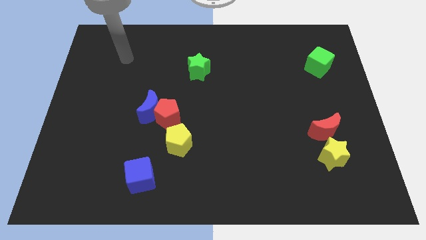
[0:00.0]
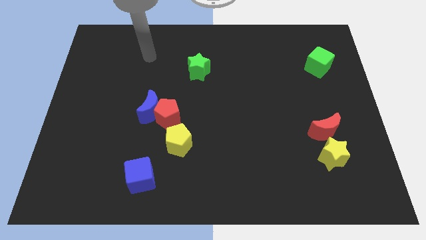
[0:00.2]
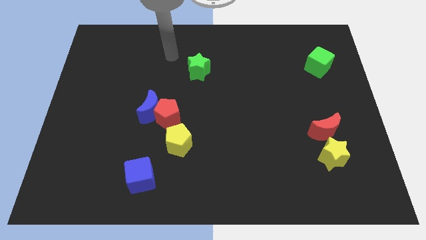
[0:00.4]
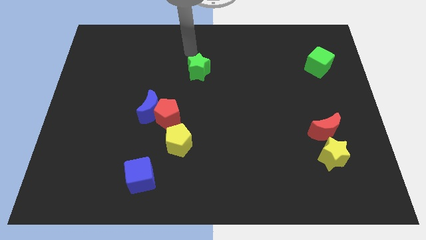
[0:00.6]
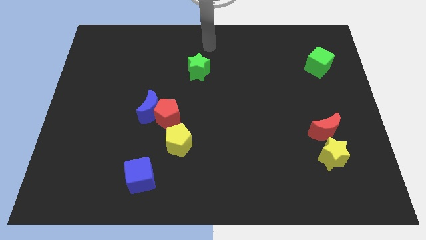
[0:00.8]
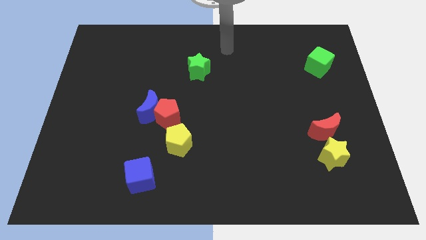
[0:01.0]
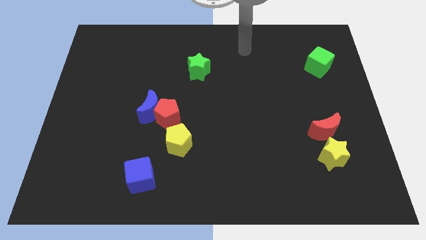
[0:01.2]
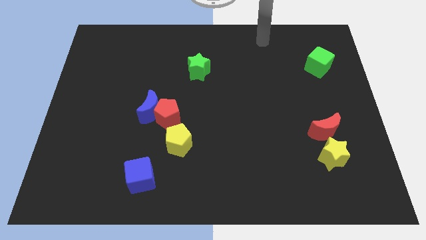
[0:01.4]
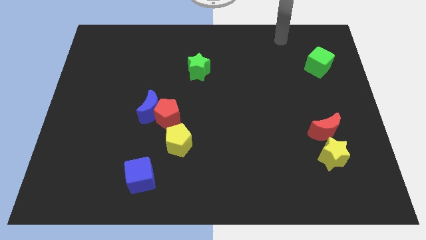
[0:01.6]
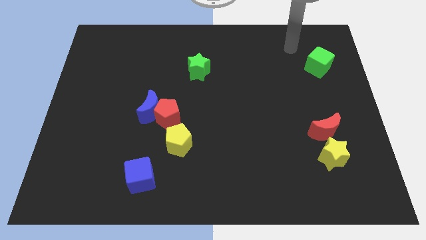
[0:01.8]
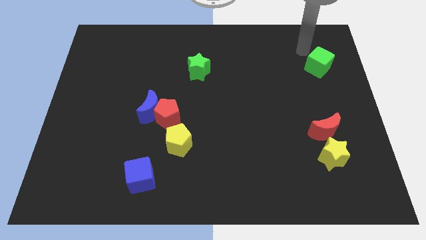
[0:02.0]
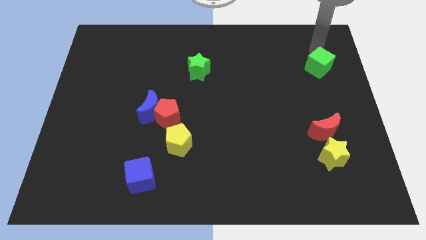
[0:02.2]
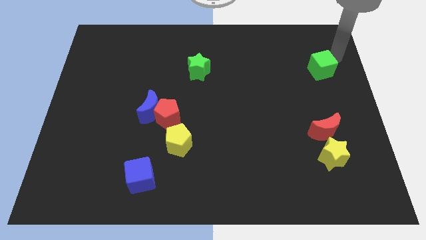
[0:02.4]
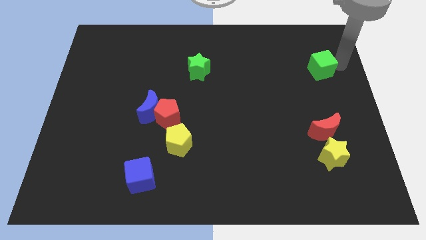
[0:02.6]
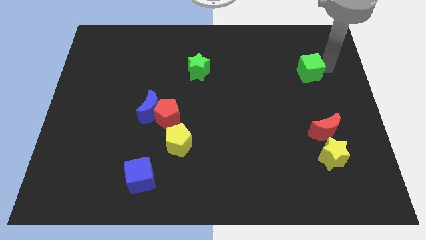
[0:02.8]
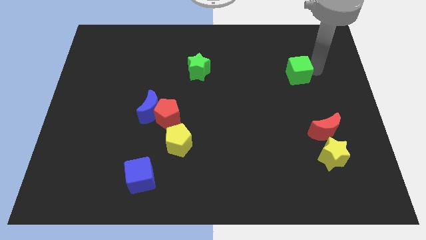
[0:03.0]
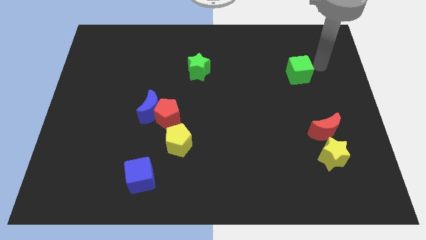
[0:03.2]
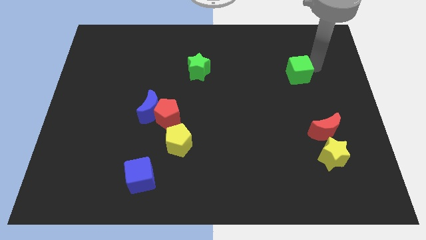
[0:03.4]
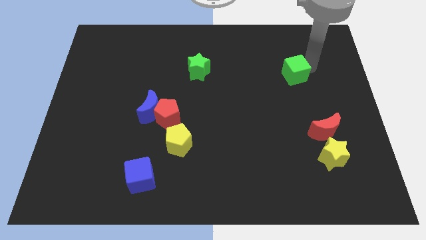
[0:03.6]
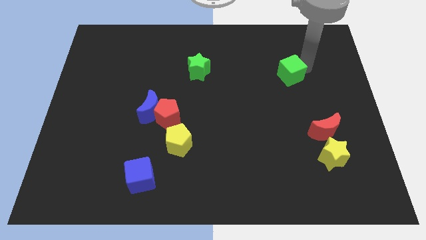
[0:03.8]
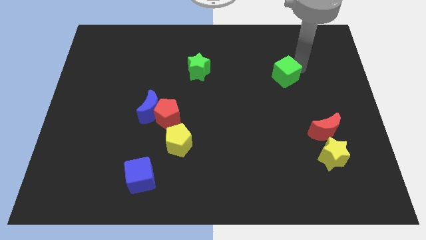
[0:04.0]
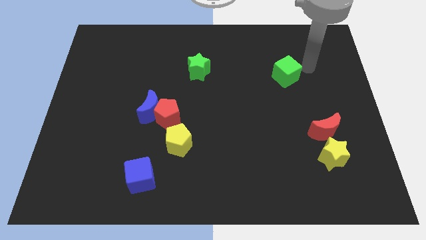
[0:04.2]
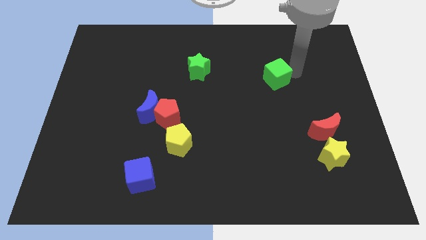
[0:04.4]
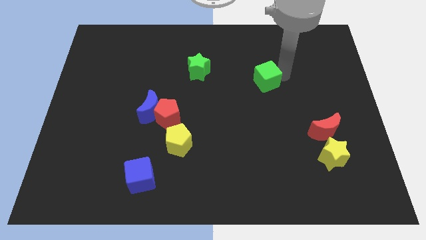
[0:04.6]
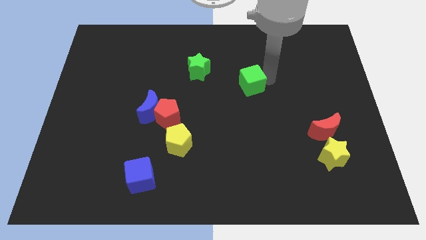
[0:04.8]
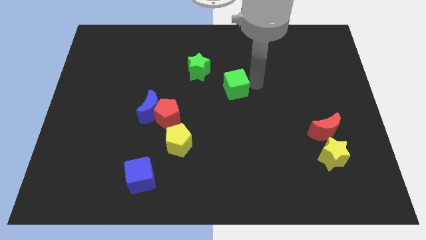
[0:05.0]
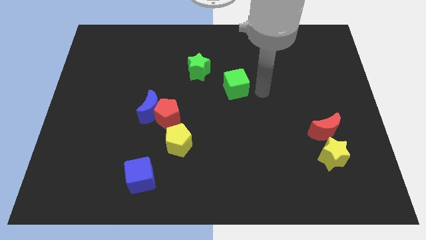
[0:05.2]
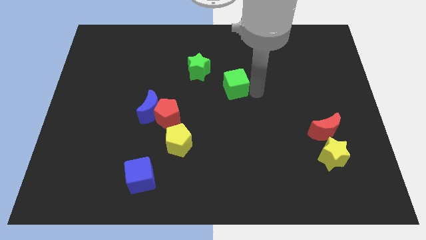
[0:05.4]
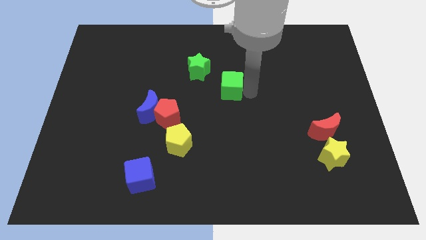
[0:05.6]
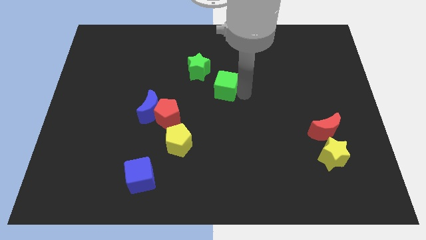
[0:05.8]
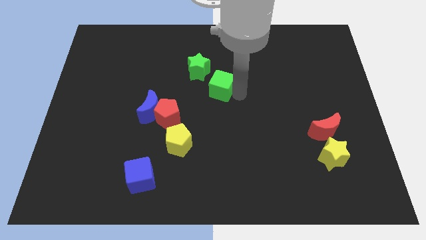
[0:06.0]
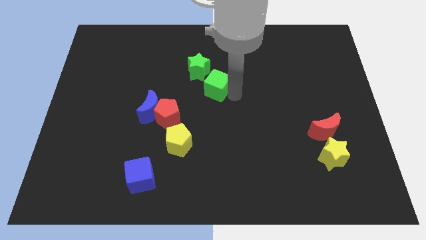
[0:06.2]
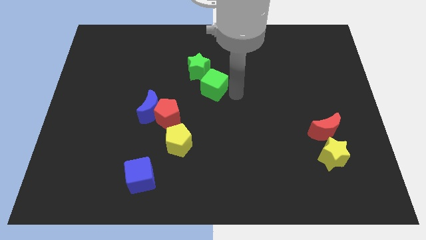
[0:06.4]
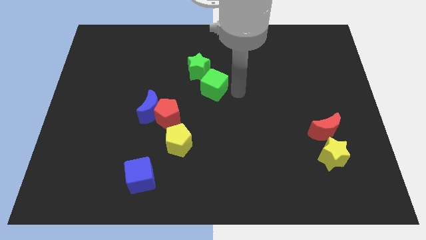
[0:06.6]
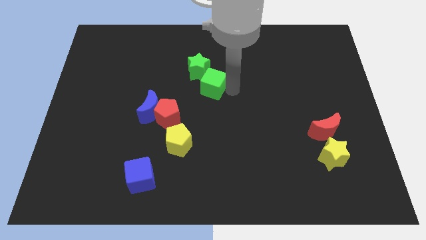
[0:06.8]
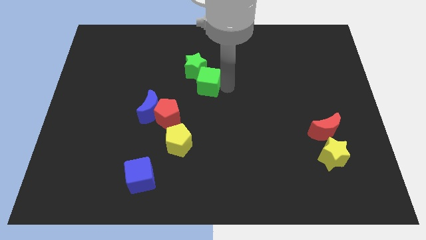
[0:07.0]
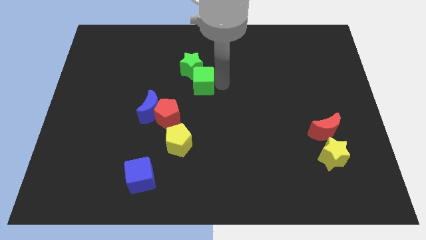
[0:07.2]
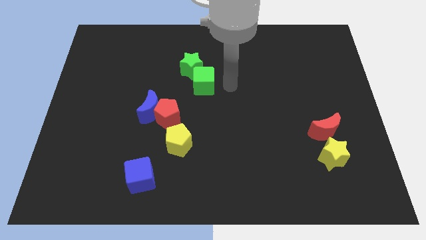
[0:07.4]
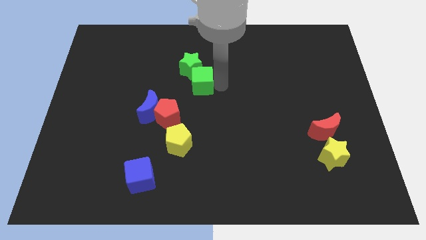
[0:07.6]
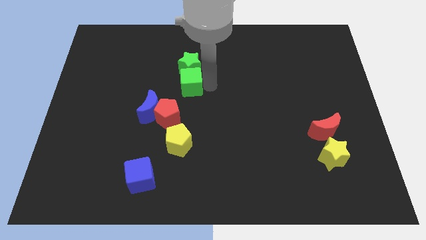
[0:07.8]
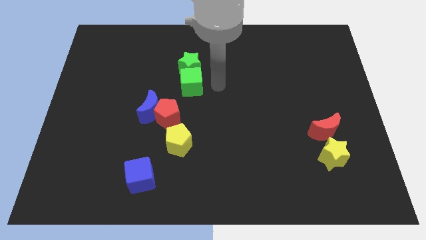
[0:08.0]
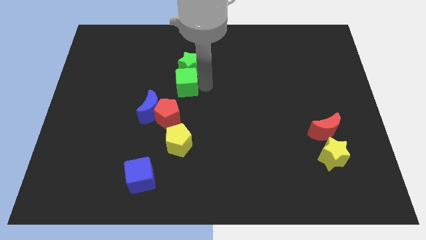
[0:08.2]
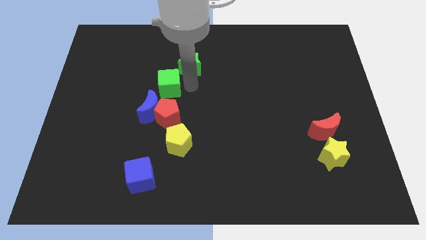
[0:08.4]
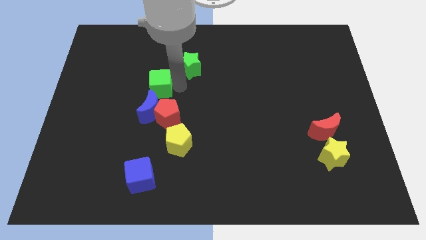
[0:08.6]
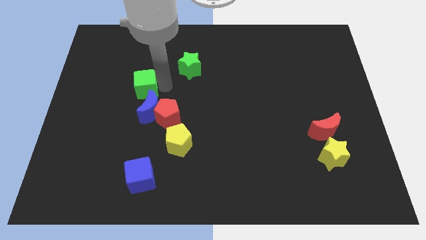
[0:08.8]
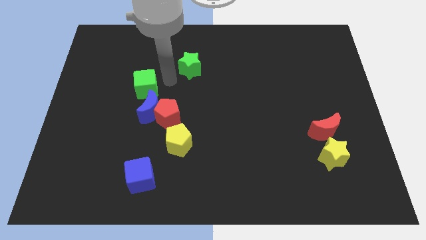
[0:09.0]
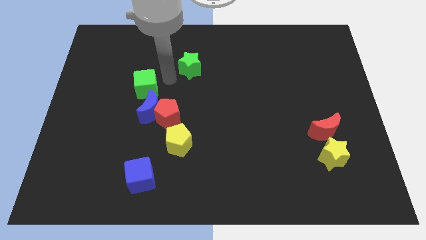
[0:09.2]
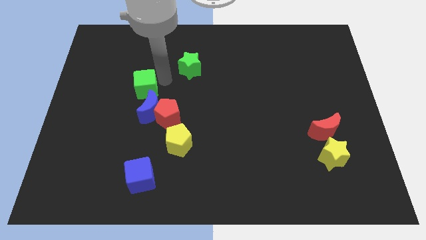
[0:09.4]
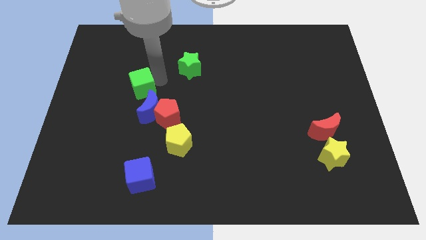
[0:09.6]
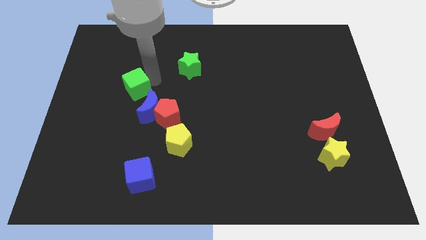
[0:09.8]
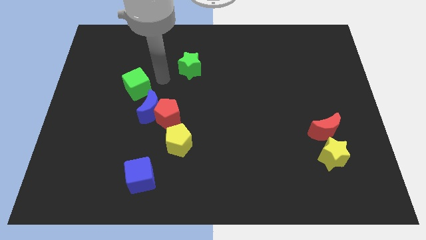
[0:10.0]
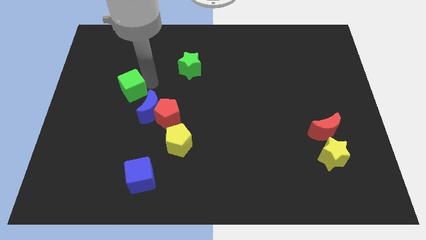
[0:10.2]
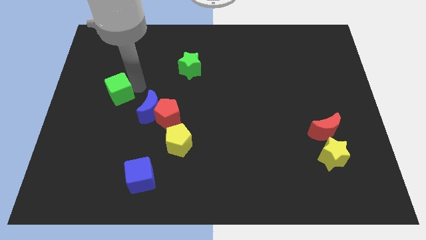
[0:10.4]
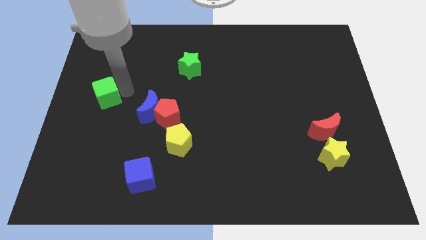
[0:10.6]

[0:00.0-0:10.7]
move the green cube to the left side

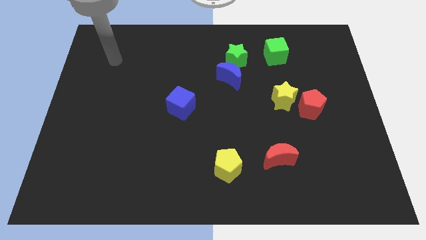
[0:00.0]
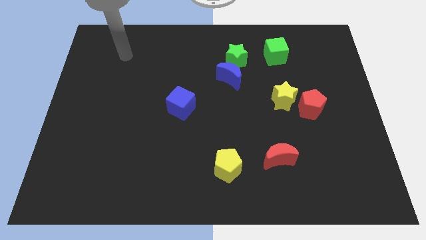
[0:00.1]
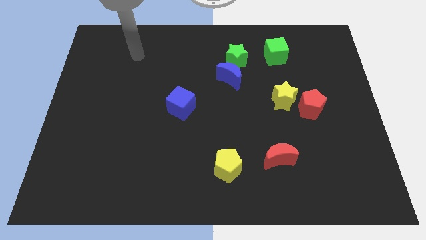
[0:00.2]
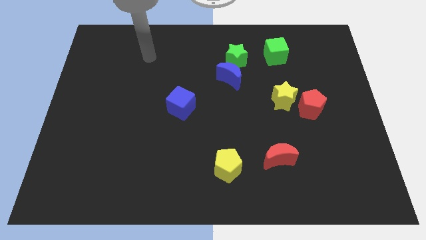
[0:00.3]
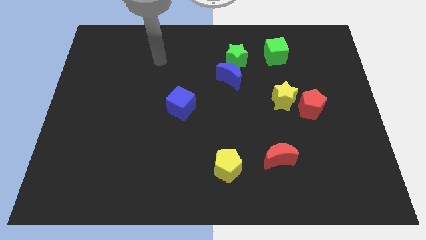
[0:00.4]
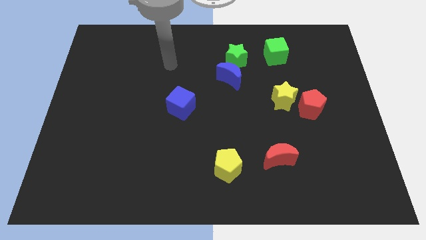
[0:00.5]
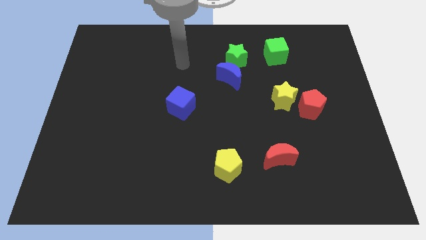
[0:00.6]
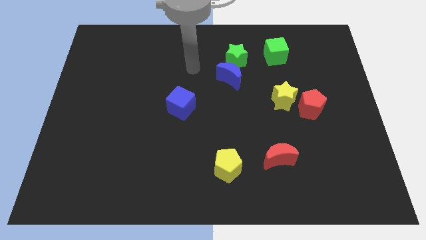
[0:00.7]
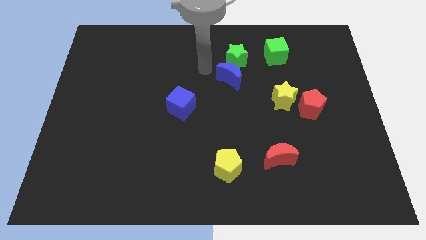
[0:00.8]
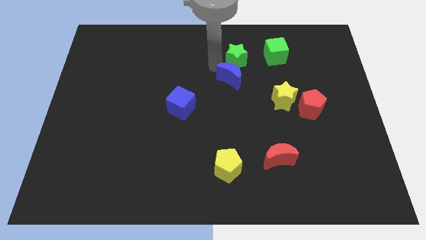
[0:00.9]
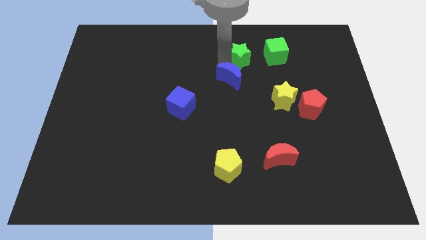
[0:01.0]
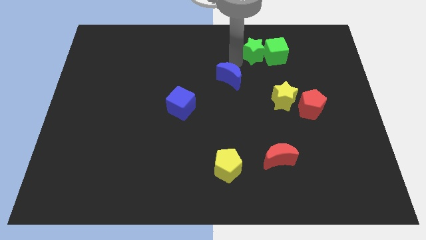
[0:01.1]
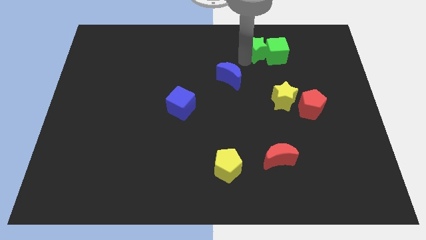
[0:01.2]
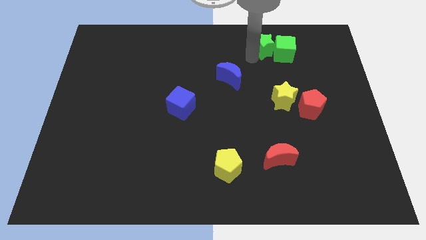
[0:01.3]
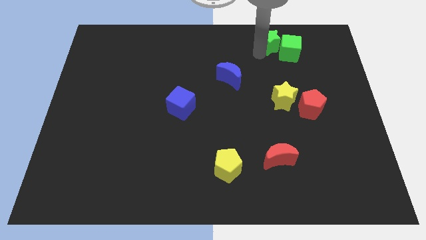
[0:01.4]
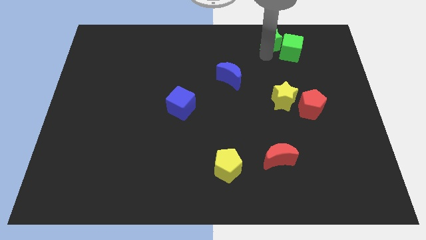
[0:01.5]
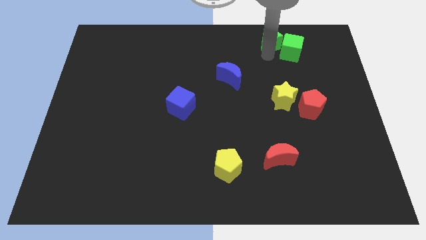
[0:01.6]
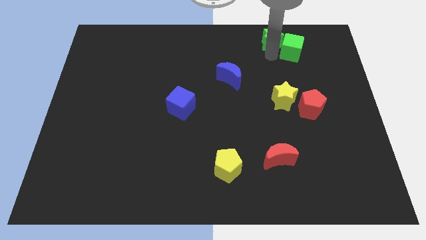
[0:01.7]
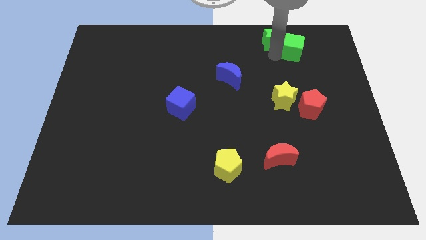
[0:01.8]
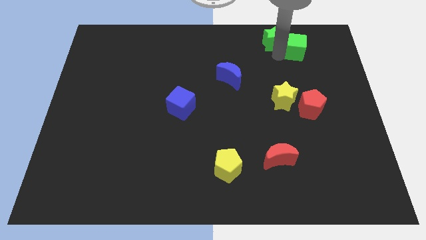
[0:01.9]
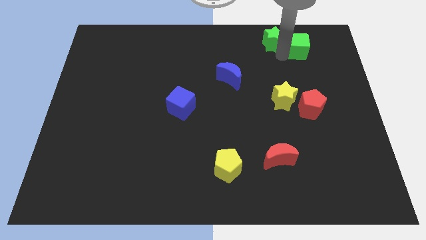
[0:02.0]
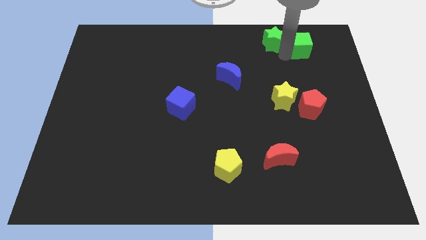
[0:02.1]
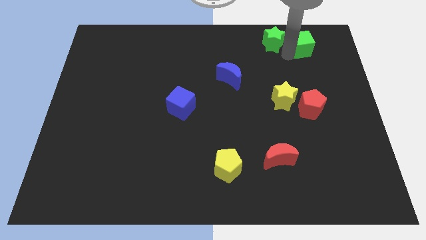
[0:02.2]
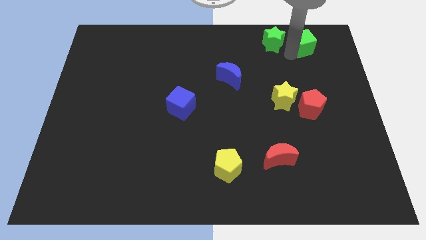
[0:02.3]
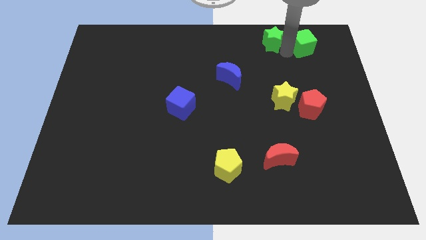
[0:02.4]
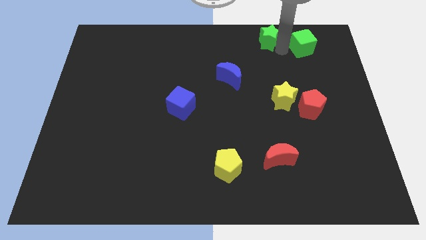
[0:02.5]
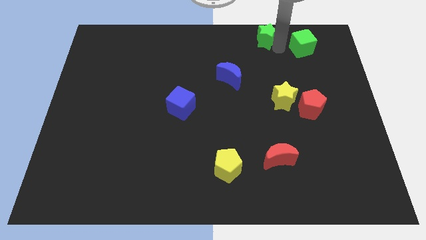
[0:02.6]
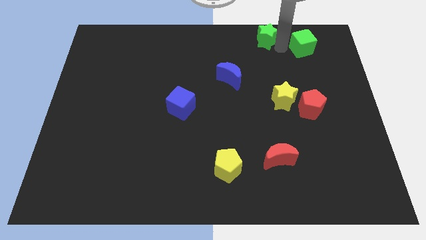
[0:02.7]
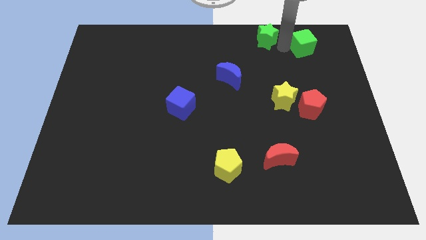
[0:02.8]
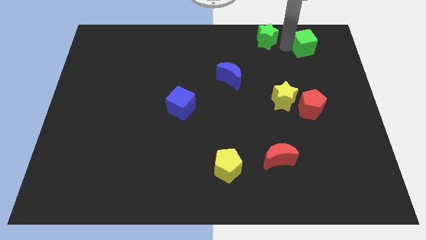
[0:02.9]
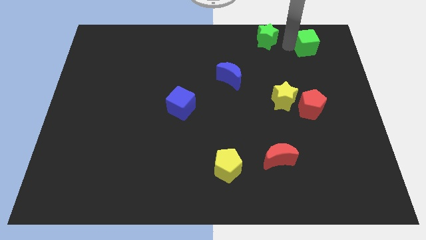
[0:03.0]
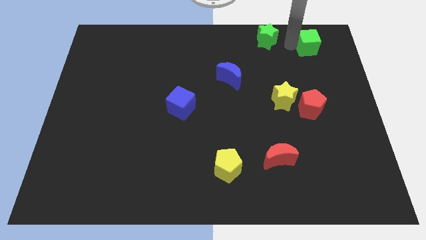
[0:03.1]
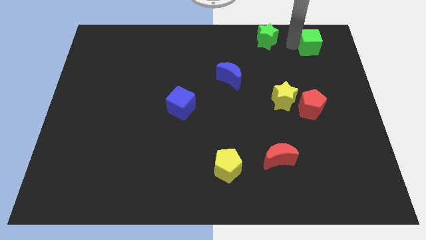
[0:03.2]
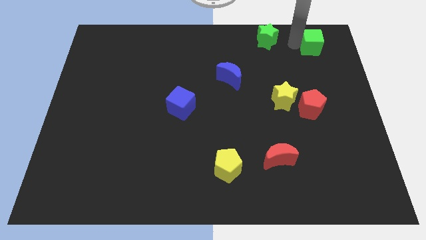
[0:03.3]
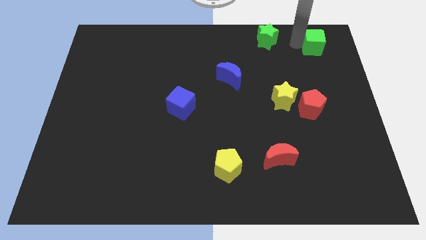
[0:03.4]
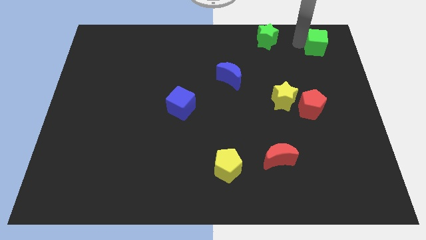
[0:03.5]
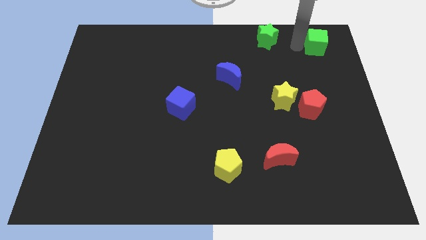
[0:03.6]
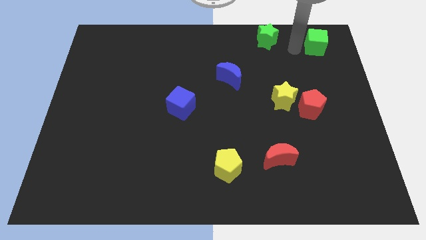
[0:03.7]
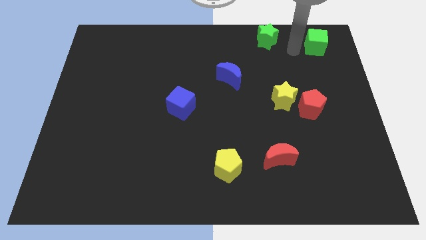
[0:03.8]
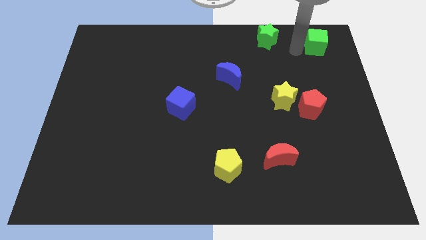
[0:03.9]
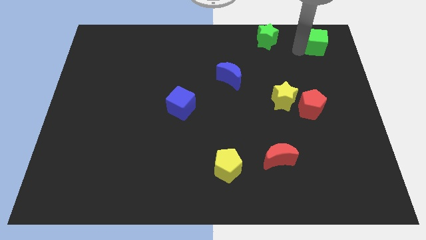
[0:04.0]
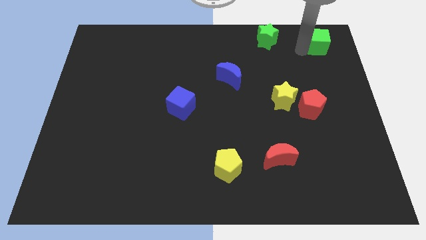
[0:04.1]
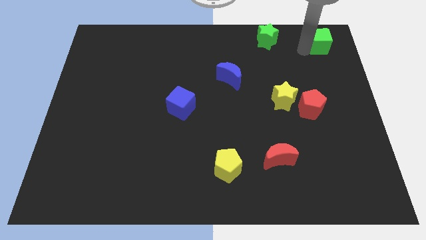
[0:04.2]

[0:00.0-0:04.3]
slide the green cube to the top right corner
